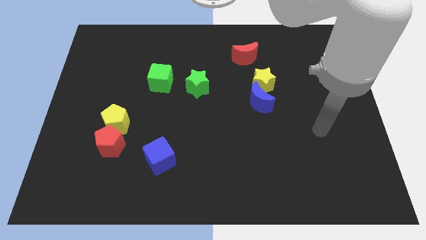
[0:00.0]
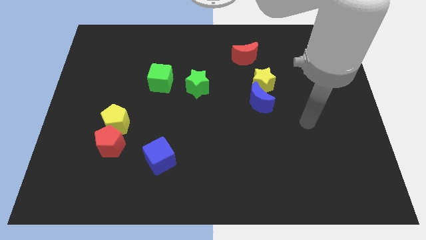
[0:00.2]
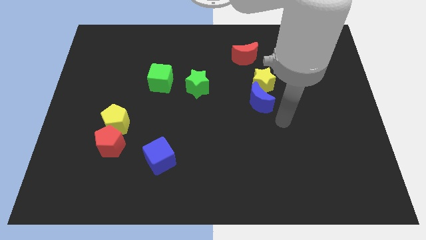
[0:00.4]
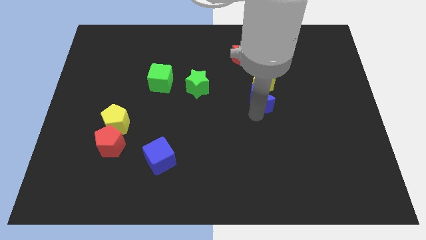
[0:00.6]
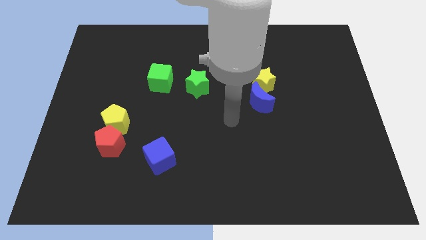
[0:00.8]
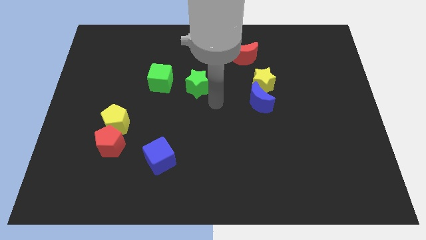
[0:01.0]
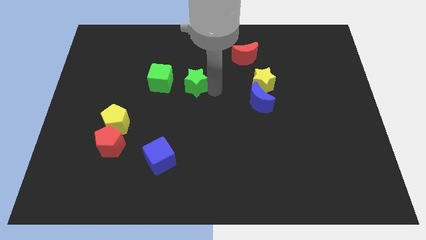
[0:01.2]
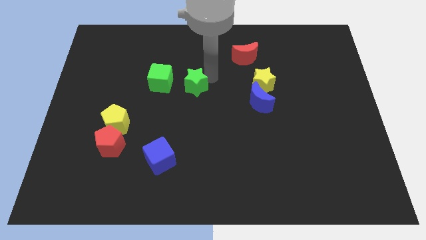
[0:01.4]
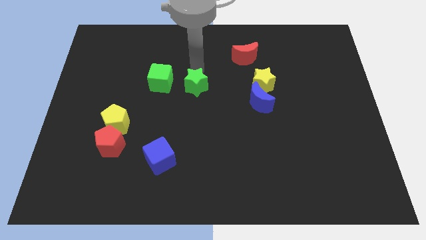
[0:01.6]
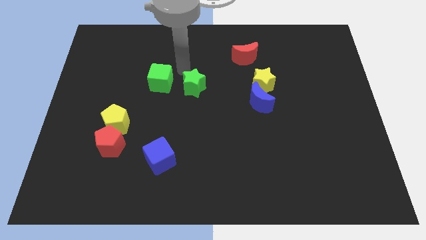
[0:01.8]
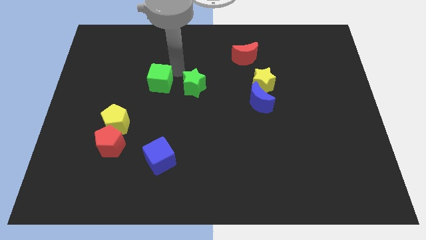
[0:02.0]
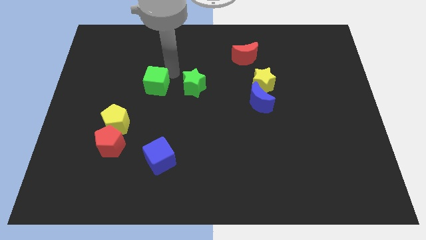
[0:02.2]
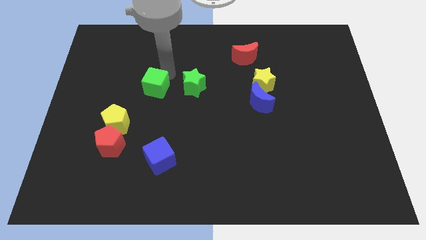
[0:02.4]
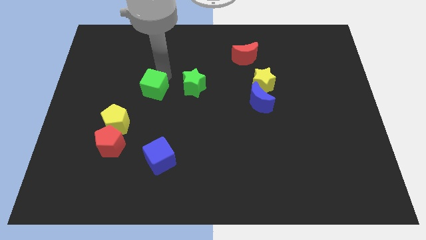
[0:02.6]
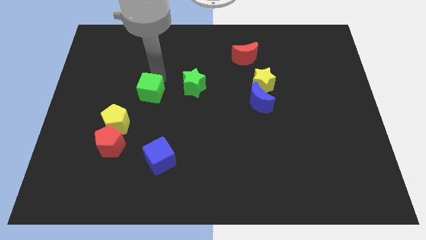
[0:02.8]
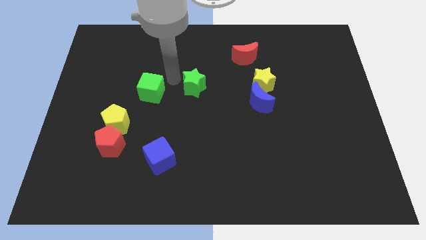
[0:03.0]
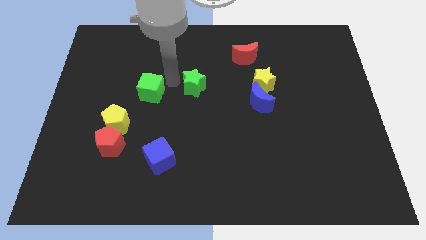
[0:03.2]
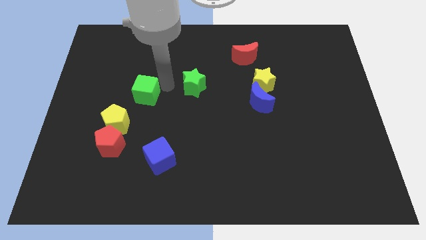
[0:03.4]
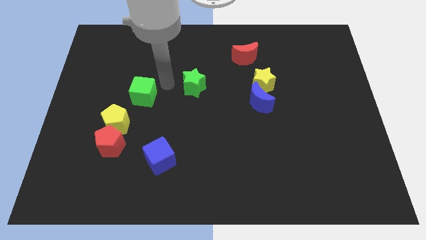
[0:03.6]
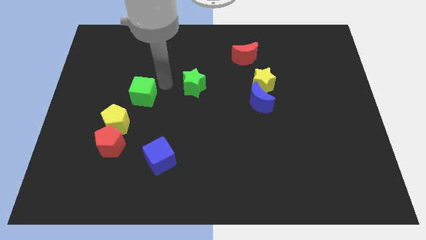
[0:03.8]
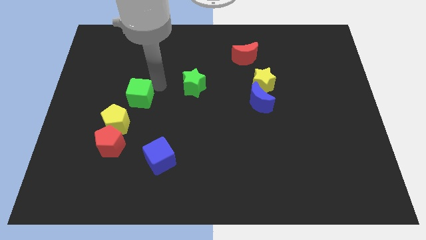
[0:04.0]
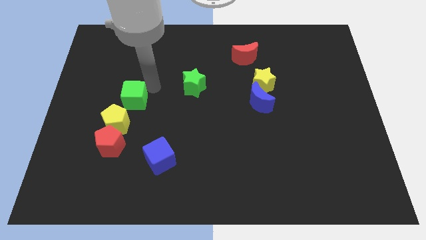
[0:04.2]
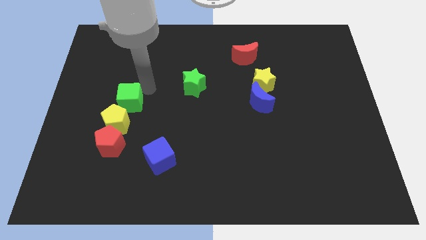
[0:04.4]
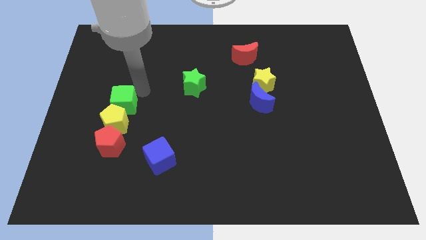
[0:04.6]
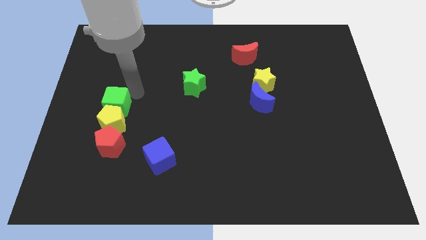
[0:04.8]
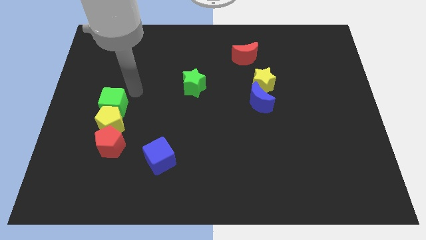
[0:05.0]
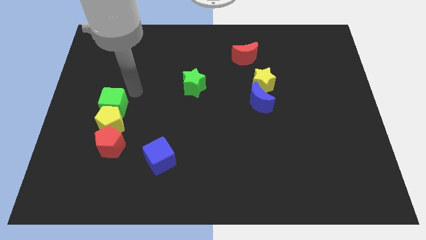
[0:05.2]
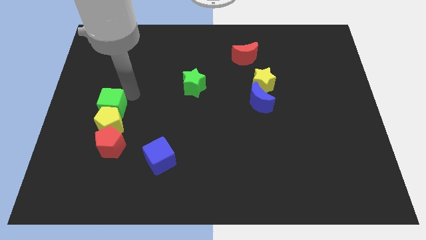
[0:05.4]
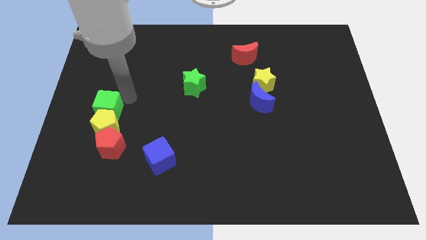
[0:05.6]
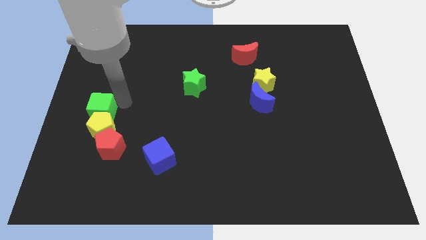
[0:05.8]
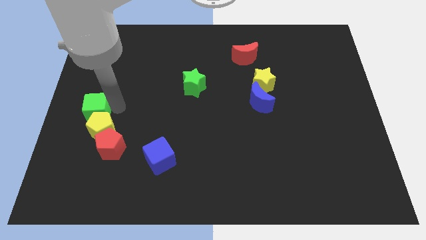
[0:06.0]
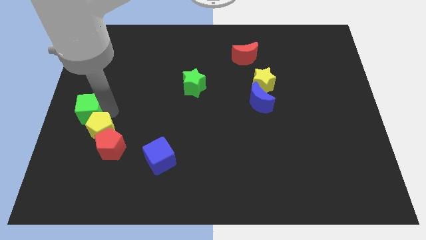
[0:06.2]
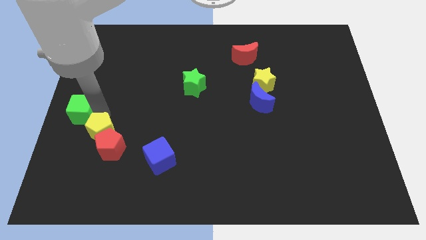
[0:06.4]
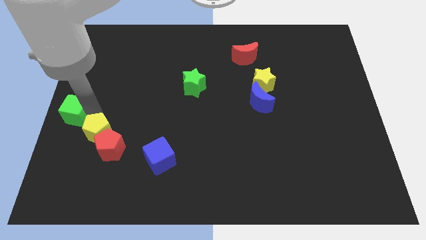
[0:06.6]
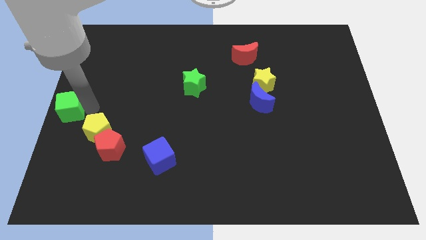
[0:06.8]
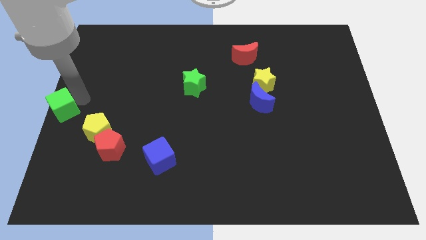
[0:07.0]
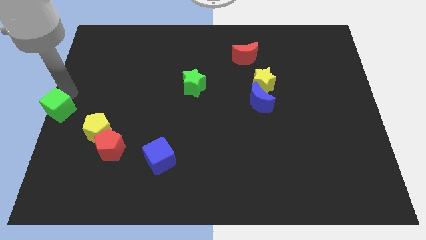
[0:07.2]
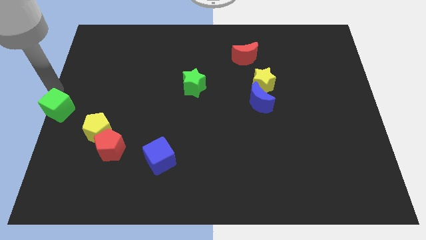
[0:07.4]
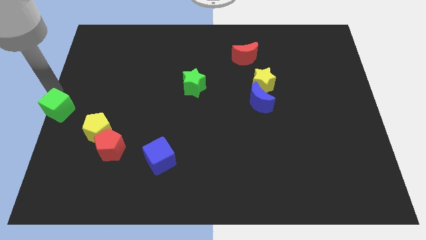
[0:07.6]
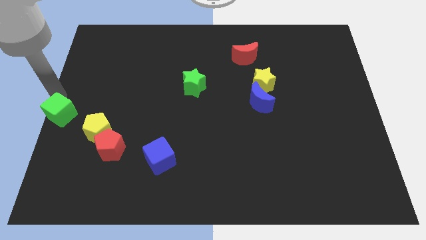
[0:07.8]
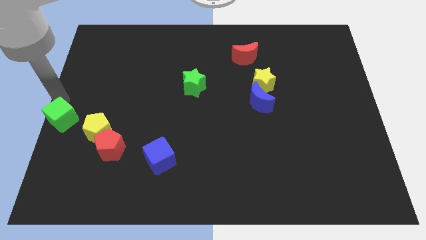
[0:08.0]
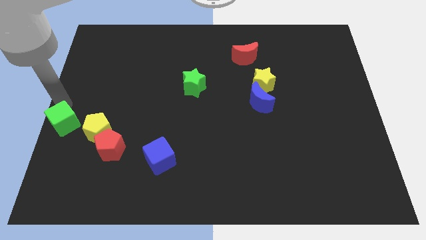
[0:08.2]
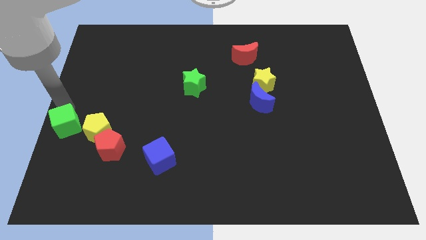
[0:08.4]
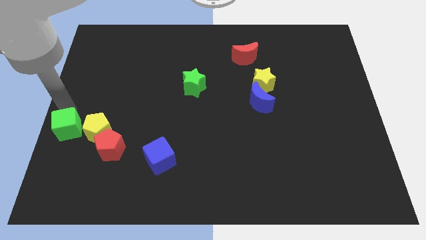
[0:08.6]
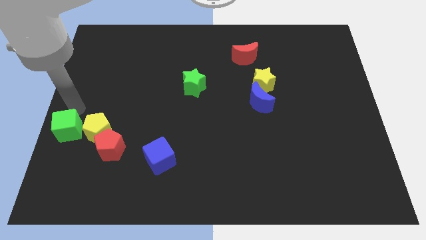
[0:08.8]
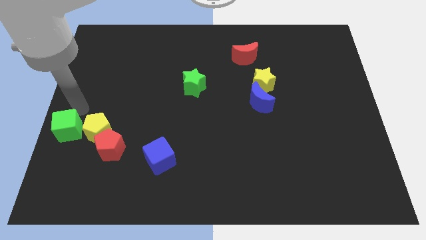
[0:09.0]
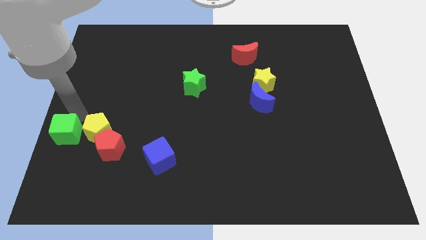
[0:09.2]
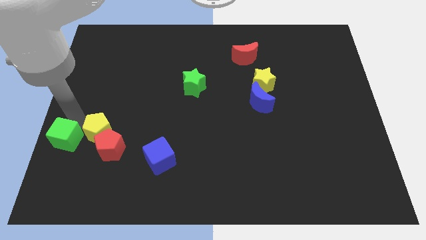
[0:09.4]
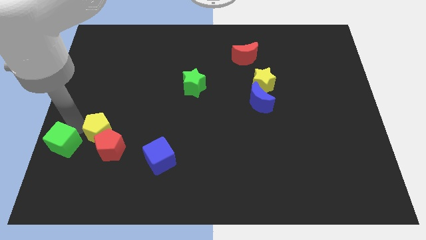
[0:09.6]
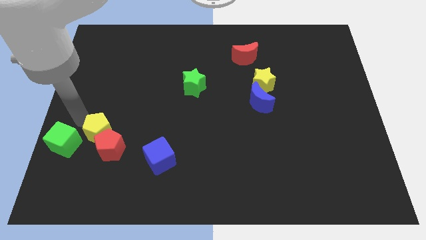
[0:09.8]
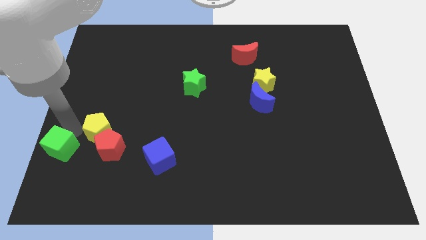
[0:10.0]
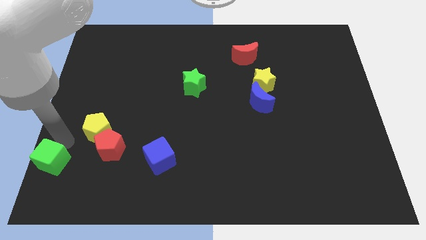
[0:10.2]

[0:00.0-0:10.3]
put the green cube to the bottom left corner

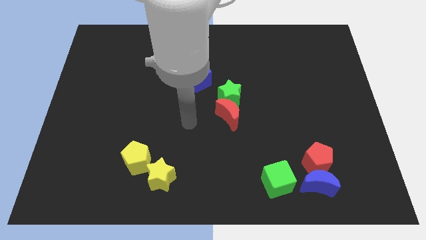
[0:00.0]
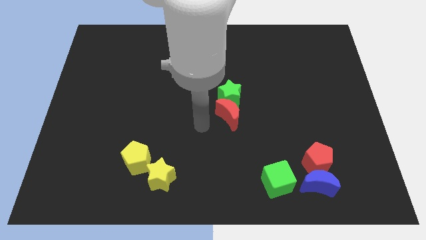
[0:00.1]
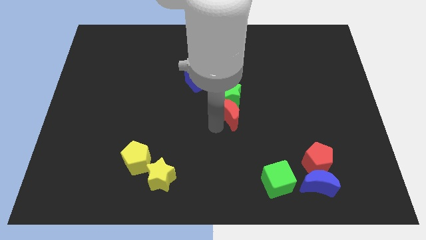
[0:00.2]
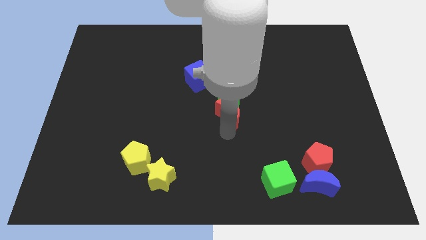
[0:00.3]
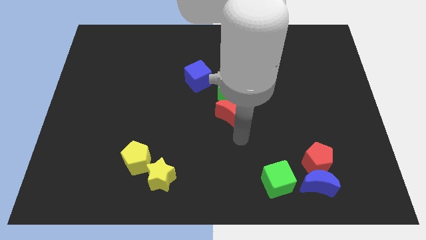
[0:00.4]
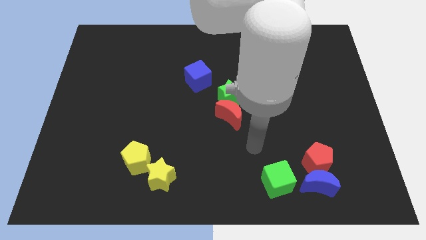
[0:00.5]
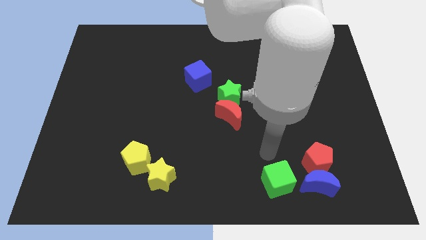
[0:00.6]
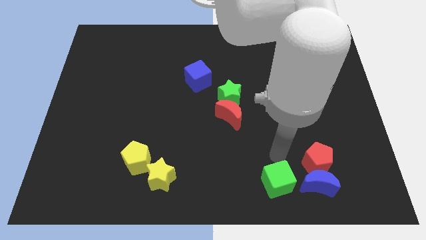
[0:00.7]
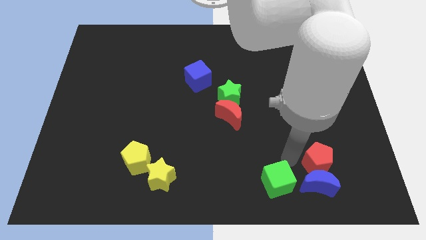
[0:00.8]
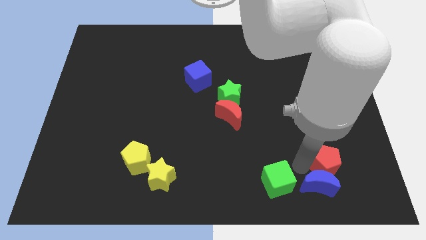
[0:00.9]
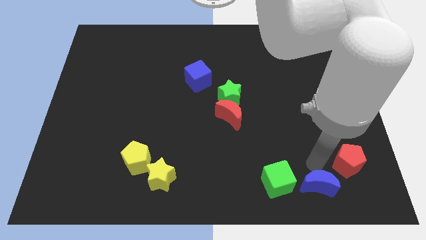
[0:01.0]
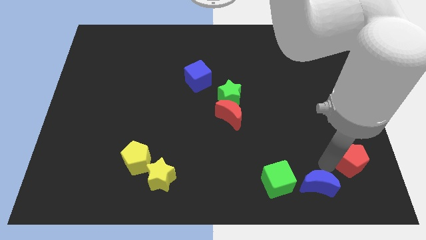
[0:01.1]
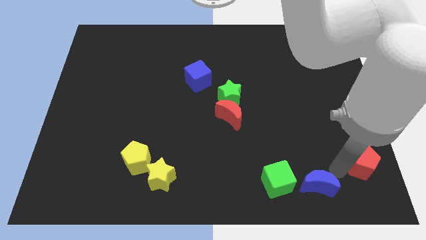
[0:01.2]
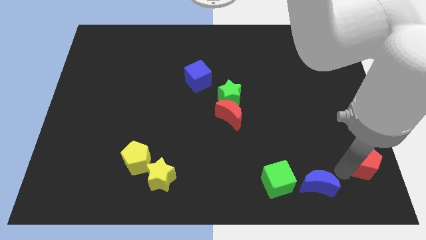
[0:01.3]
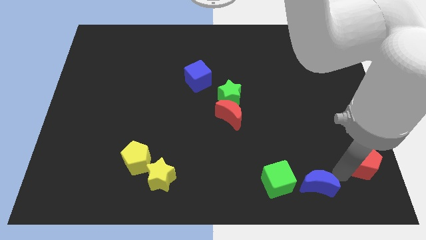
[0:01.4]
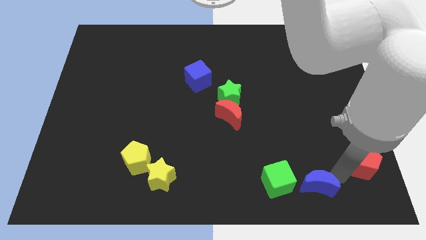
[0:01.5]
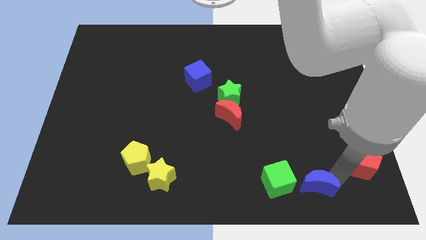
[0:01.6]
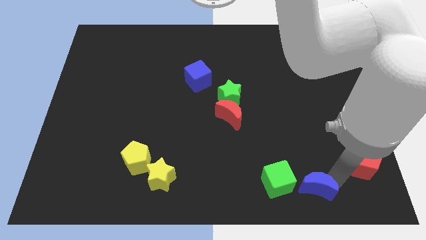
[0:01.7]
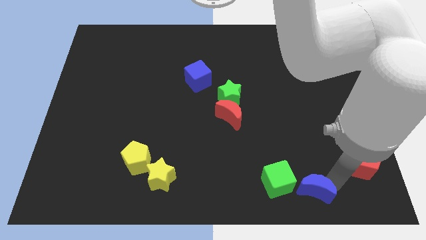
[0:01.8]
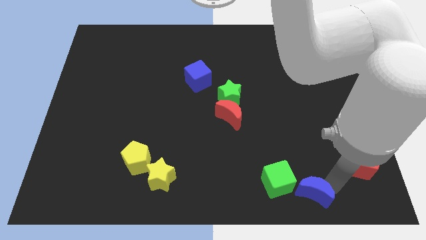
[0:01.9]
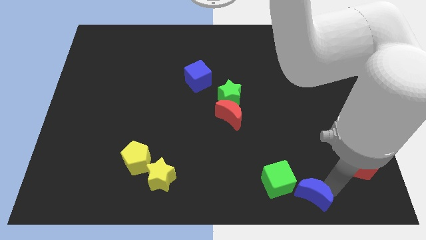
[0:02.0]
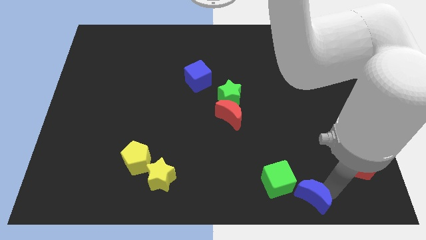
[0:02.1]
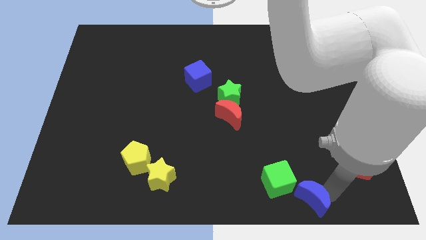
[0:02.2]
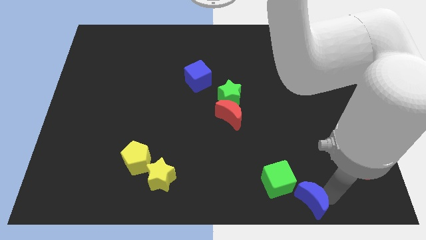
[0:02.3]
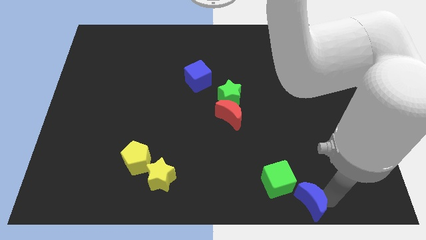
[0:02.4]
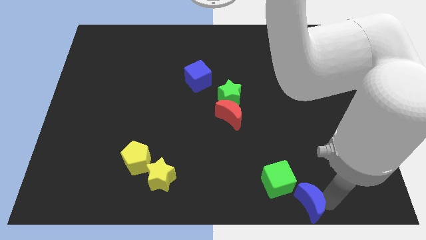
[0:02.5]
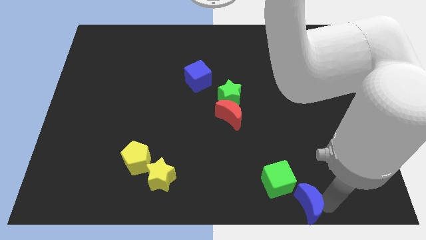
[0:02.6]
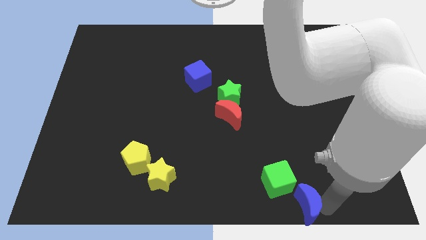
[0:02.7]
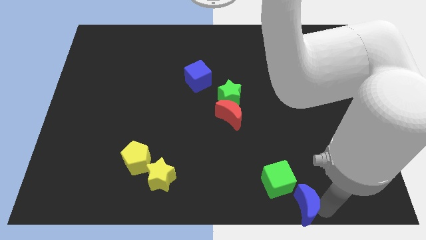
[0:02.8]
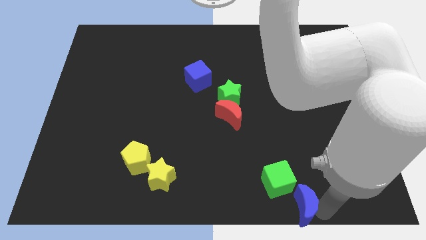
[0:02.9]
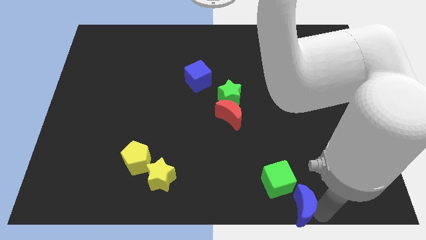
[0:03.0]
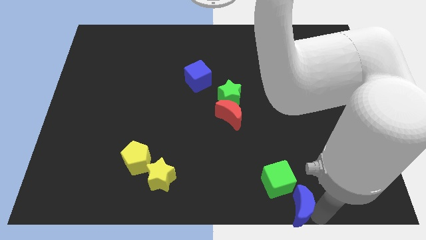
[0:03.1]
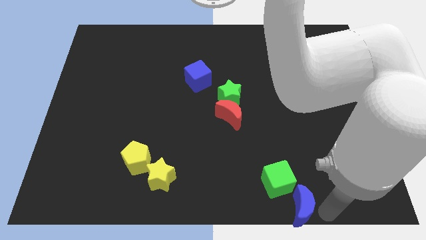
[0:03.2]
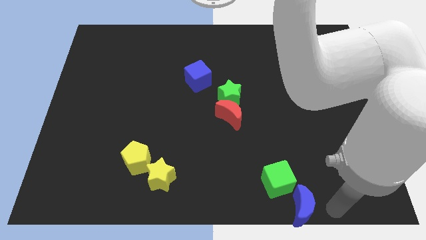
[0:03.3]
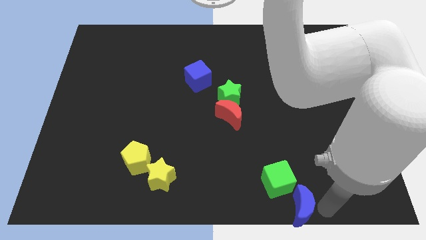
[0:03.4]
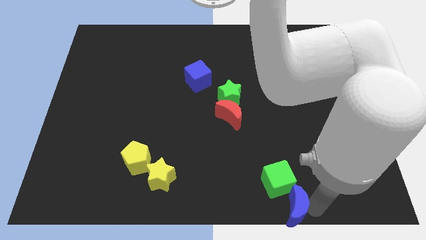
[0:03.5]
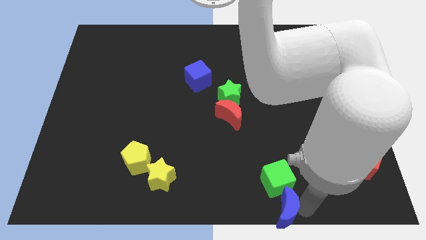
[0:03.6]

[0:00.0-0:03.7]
move the blue moon to the bottom
